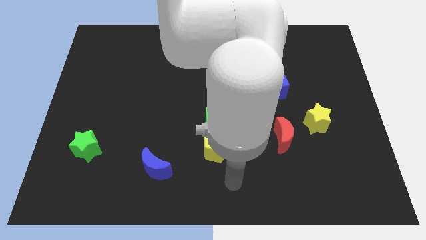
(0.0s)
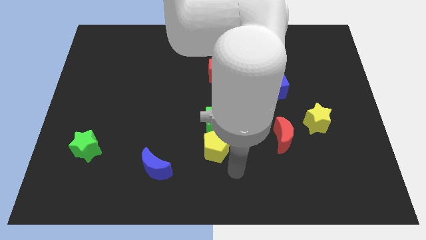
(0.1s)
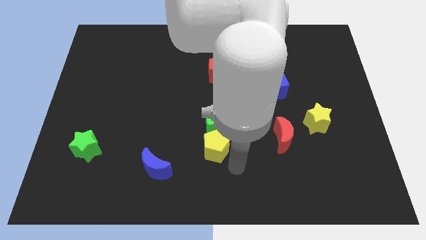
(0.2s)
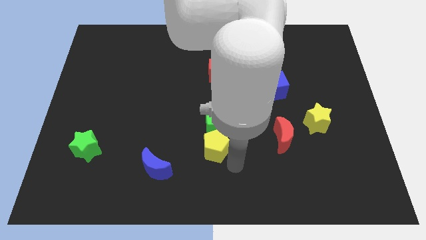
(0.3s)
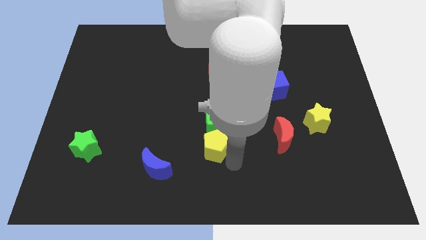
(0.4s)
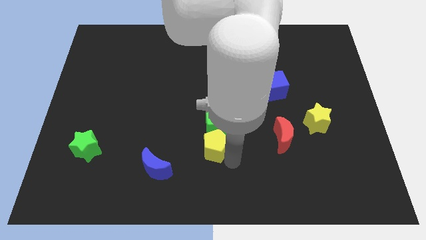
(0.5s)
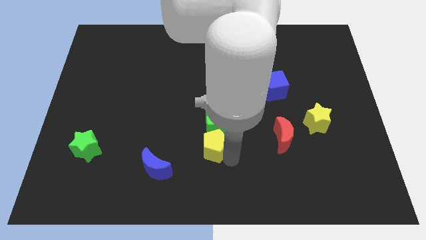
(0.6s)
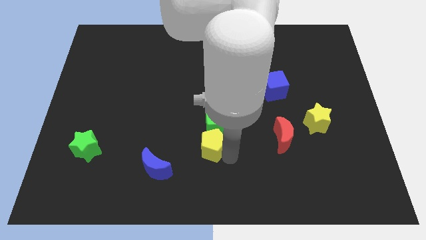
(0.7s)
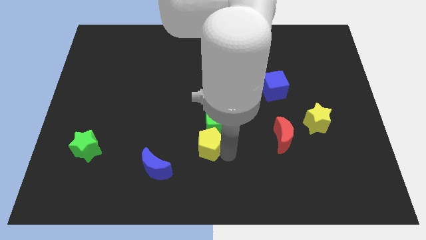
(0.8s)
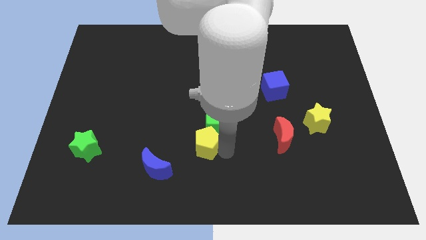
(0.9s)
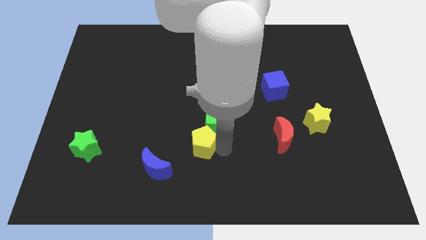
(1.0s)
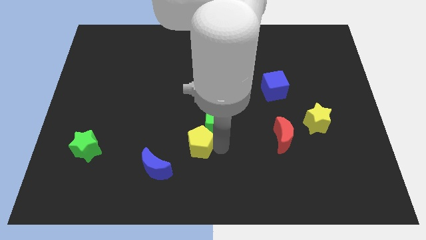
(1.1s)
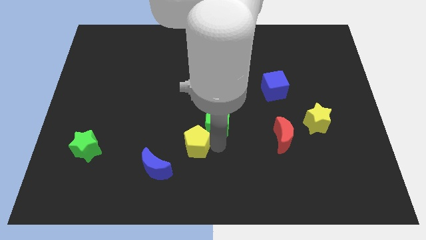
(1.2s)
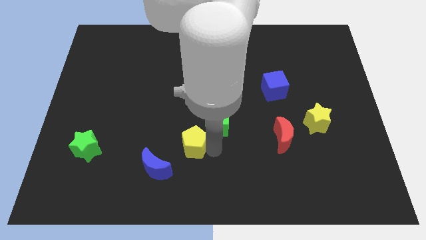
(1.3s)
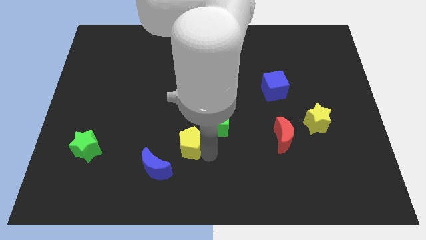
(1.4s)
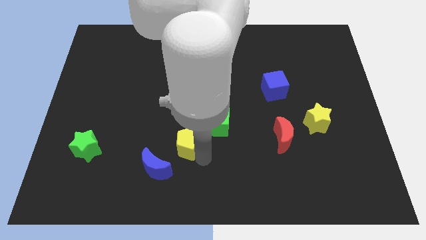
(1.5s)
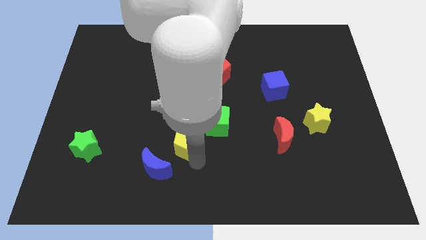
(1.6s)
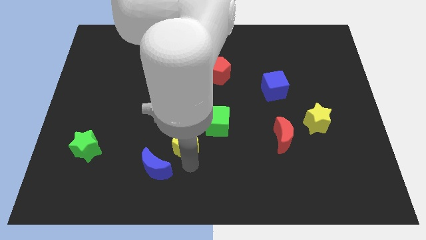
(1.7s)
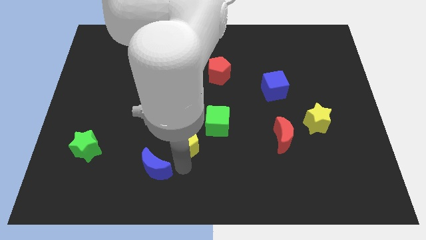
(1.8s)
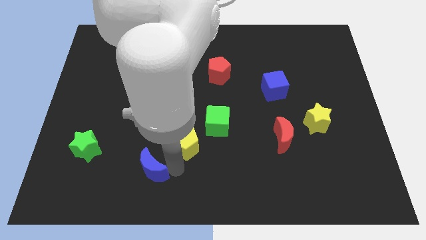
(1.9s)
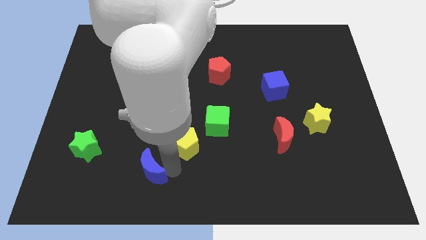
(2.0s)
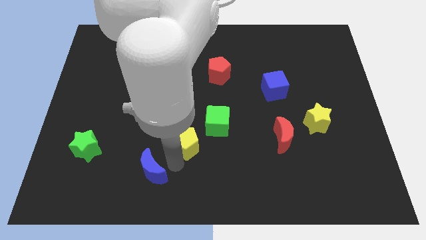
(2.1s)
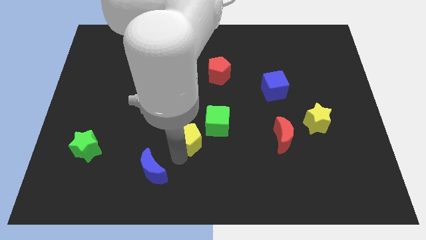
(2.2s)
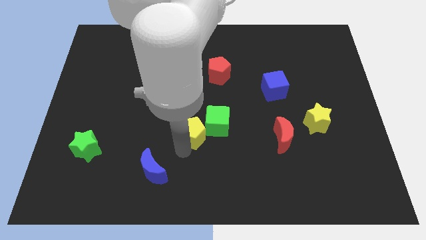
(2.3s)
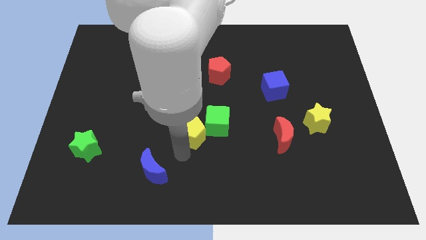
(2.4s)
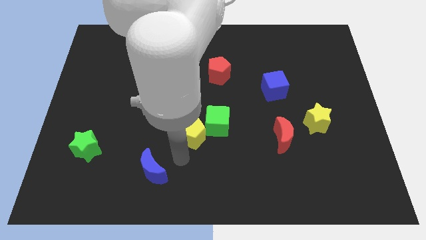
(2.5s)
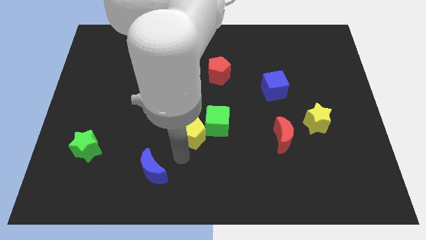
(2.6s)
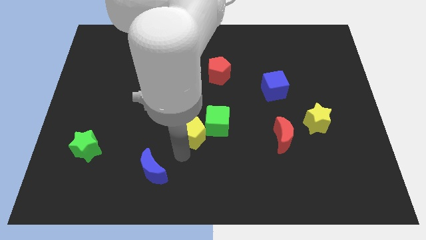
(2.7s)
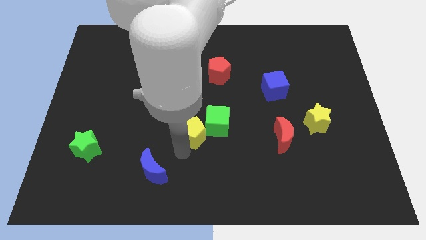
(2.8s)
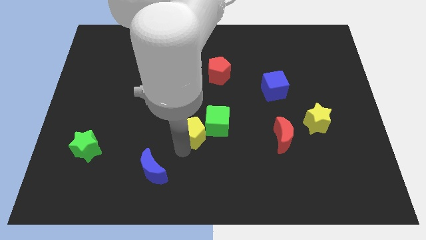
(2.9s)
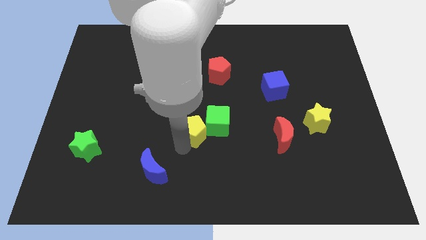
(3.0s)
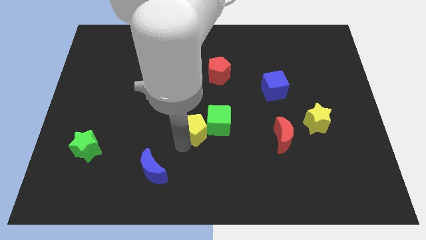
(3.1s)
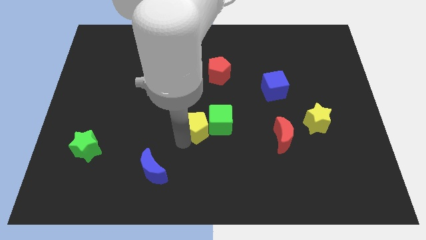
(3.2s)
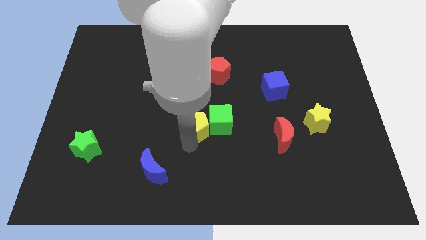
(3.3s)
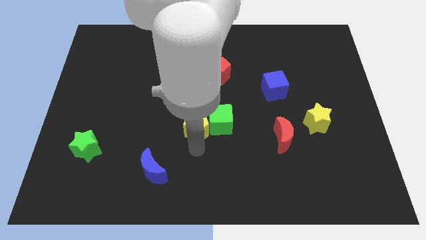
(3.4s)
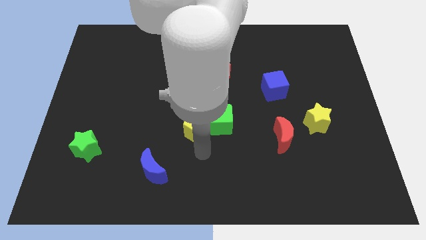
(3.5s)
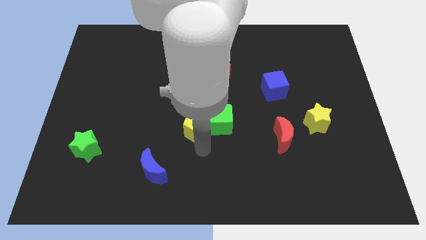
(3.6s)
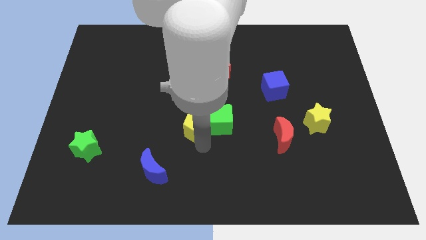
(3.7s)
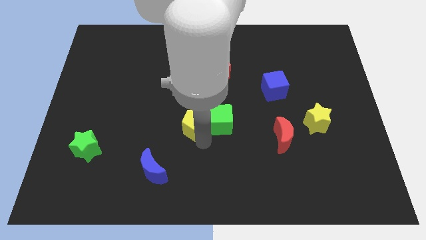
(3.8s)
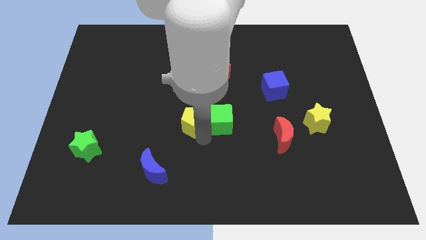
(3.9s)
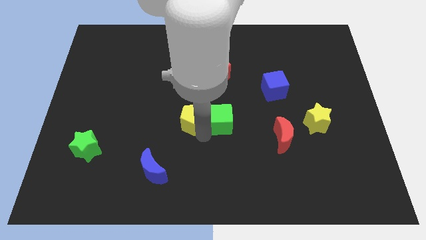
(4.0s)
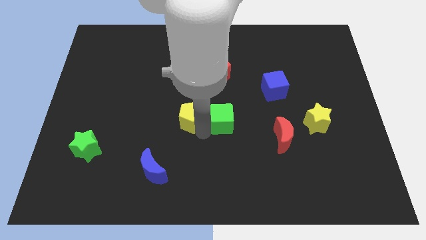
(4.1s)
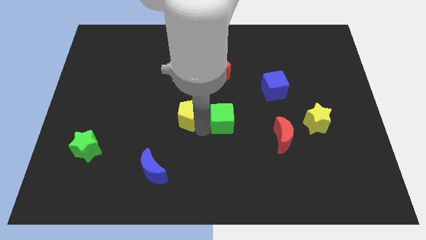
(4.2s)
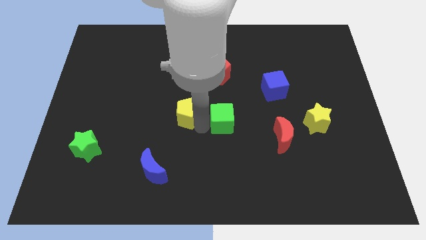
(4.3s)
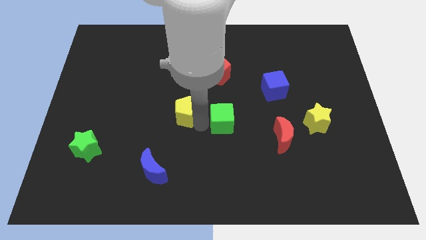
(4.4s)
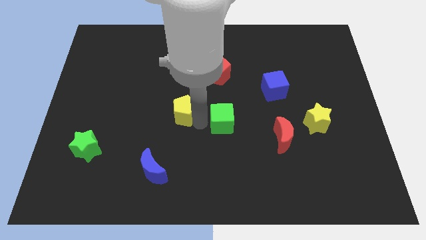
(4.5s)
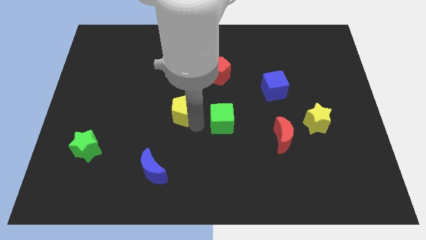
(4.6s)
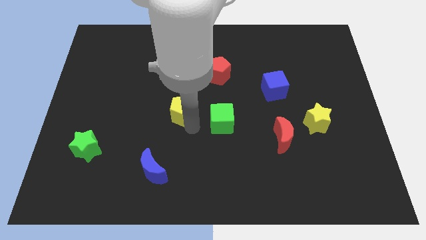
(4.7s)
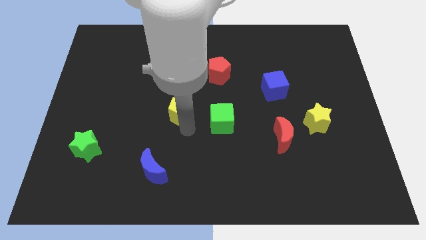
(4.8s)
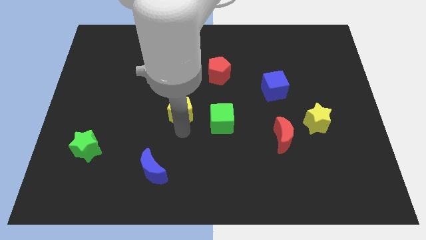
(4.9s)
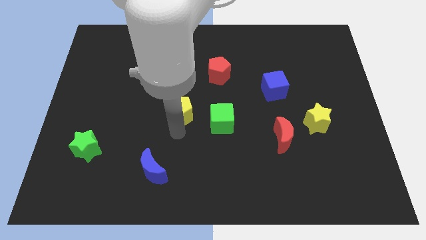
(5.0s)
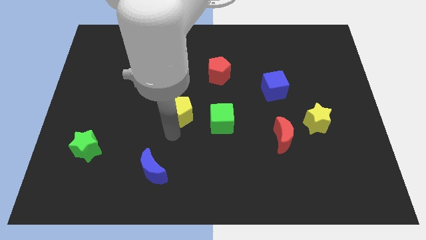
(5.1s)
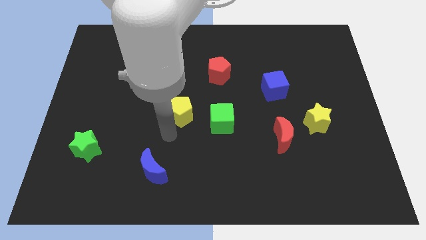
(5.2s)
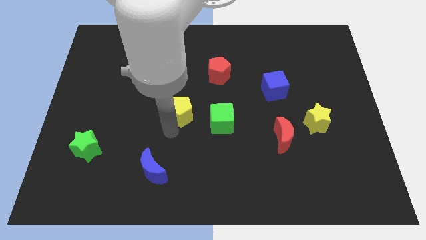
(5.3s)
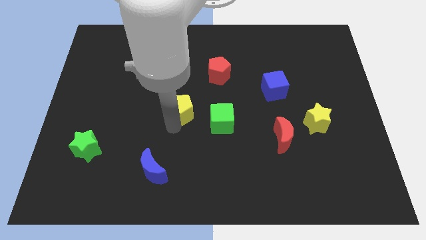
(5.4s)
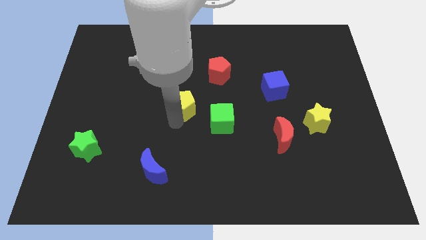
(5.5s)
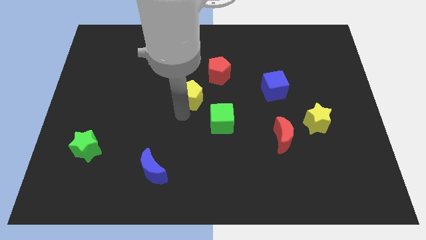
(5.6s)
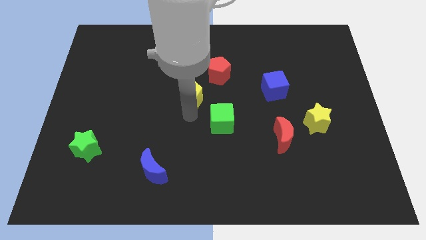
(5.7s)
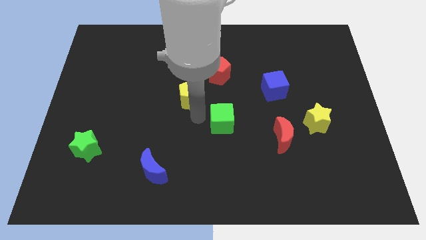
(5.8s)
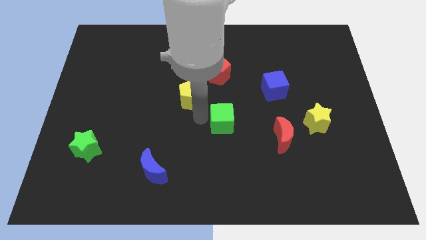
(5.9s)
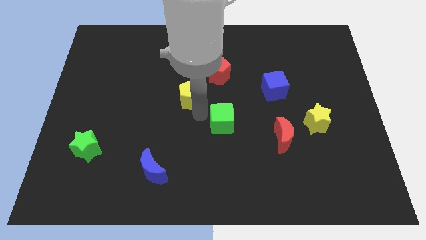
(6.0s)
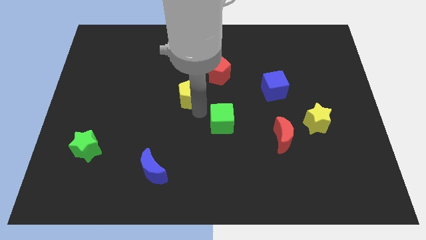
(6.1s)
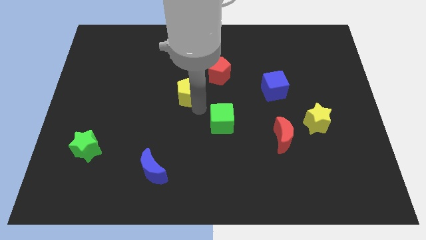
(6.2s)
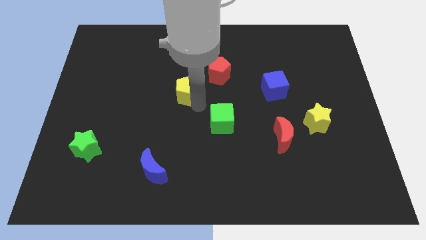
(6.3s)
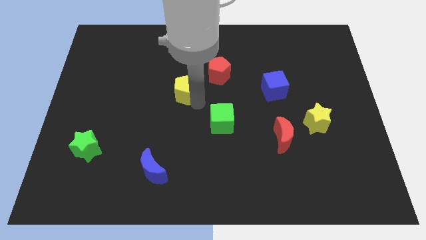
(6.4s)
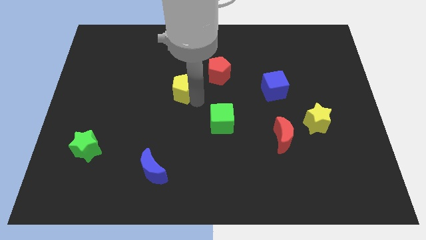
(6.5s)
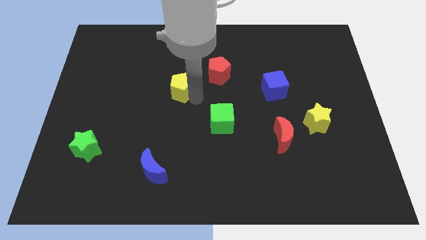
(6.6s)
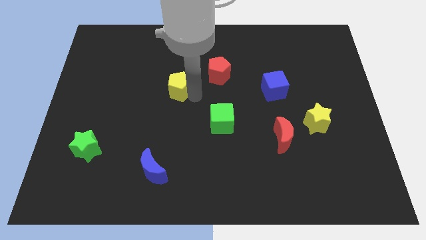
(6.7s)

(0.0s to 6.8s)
slide the yellow pentagon to the left of the red pentagon

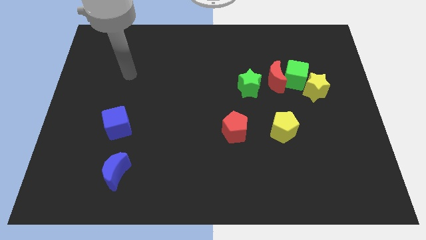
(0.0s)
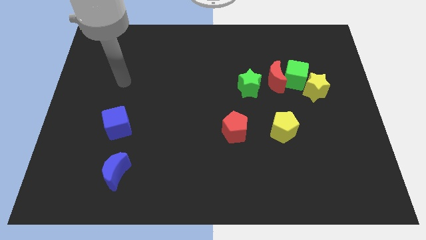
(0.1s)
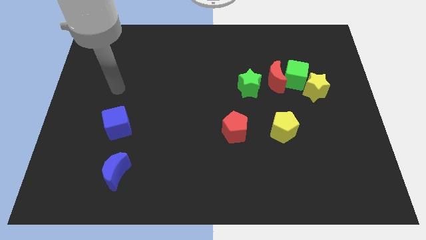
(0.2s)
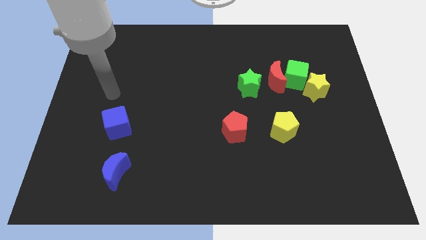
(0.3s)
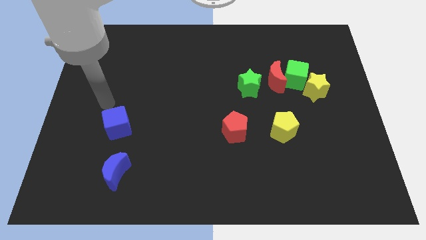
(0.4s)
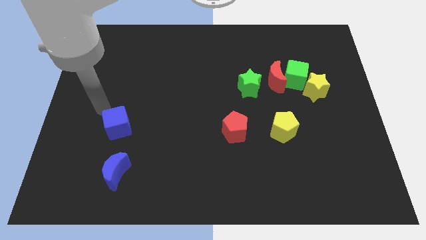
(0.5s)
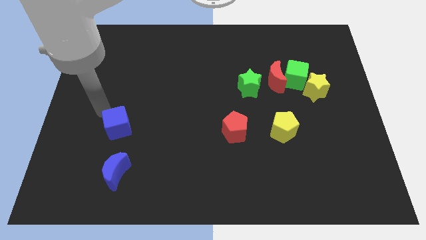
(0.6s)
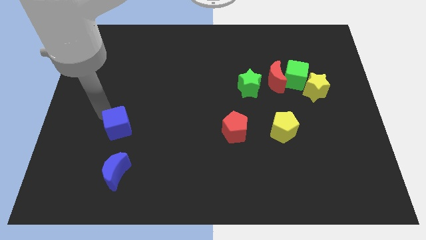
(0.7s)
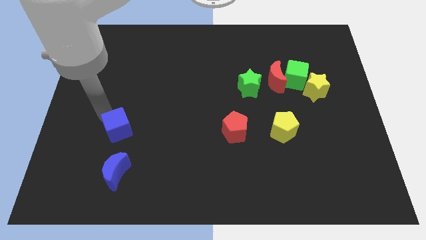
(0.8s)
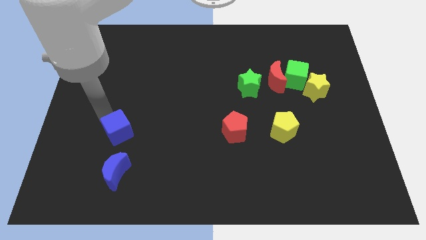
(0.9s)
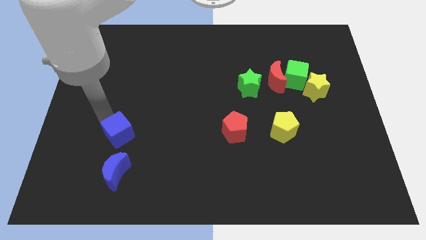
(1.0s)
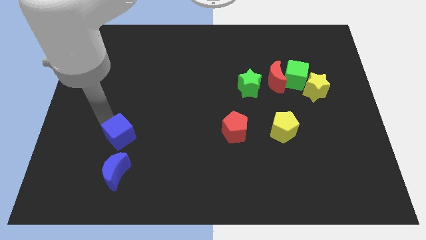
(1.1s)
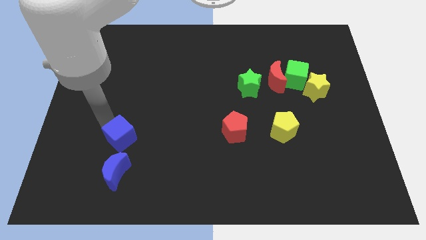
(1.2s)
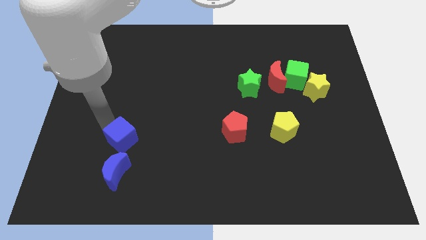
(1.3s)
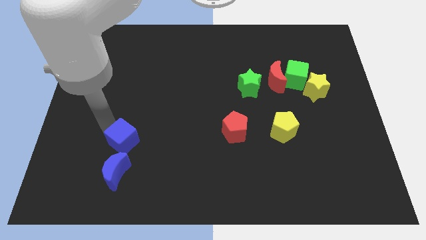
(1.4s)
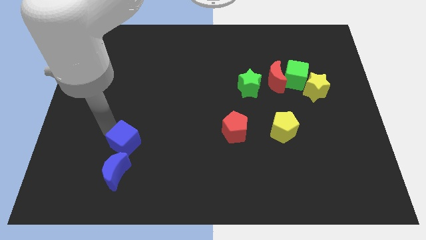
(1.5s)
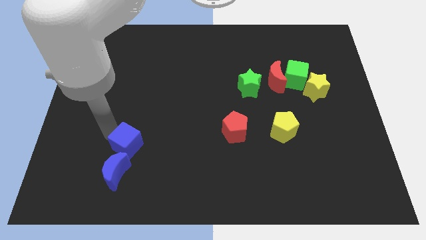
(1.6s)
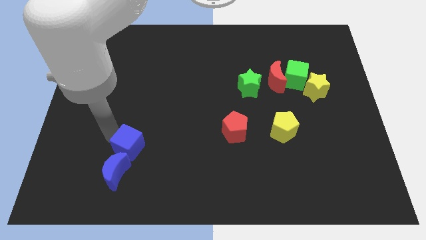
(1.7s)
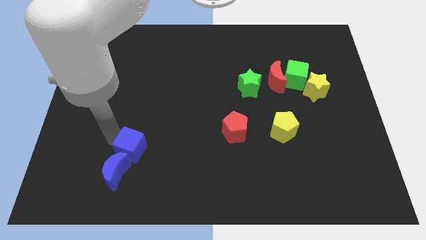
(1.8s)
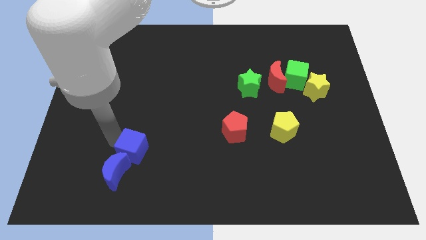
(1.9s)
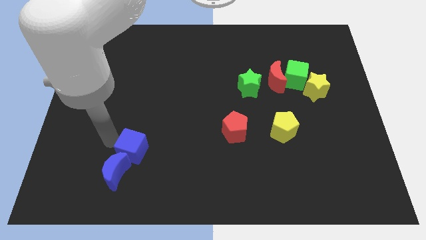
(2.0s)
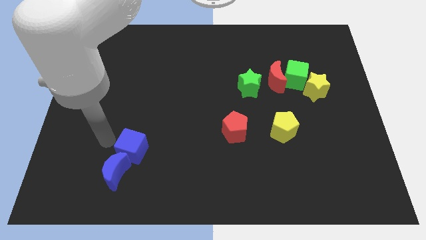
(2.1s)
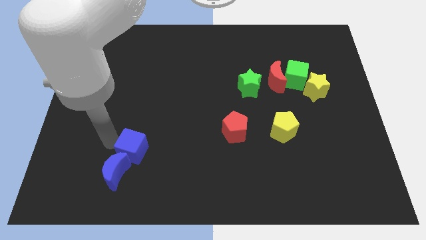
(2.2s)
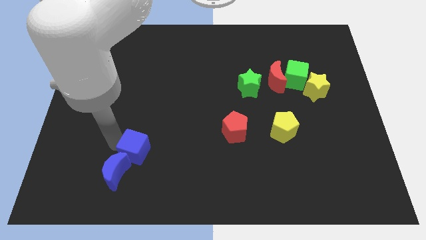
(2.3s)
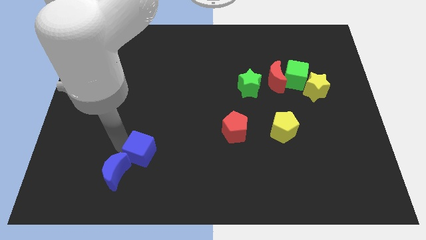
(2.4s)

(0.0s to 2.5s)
put the blue cube to the right of the blue moon
